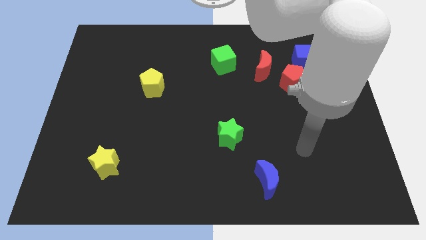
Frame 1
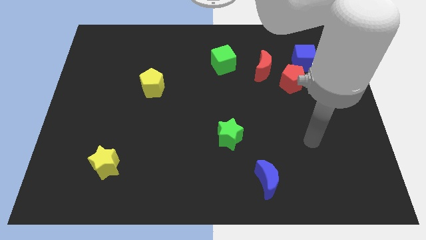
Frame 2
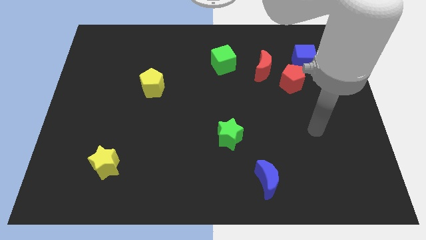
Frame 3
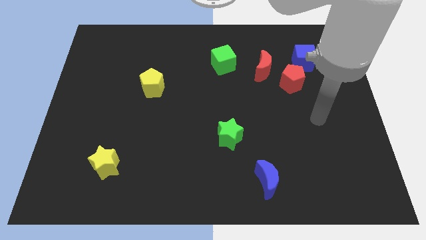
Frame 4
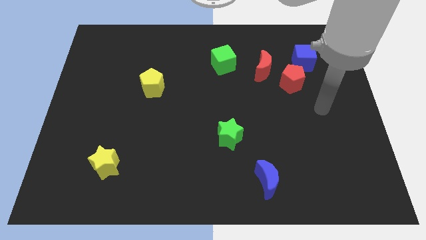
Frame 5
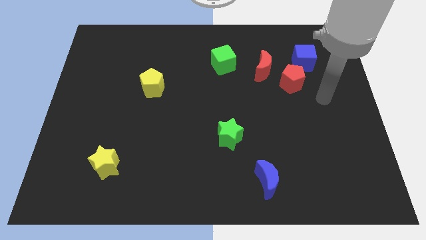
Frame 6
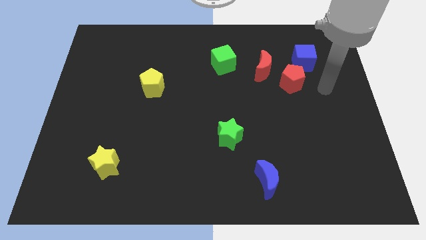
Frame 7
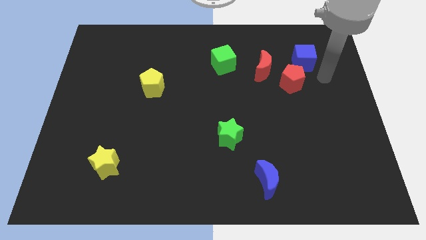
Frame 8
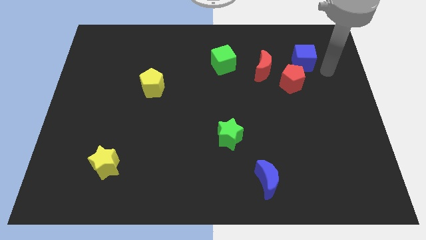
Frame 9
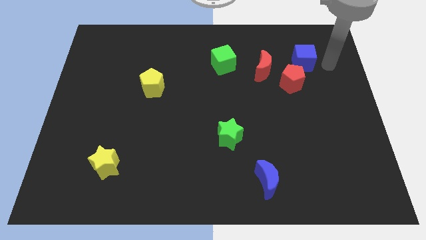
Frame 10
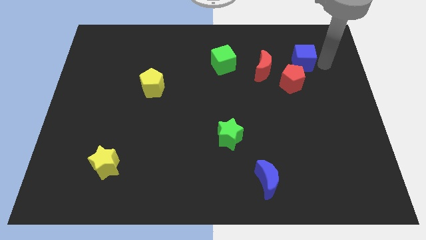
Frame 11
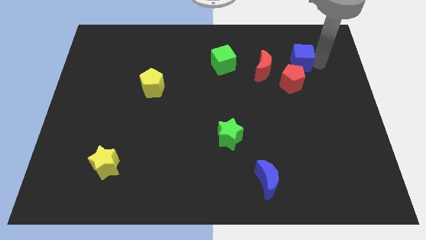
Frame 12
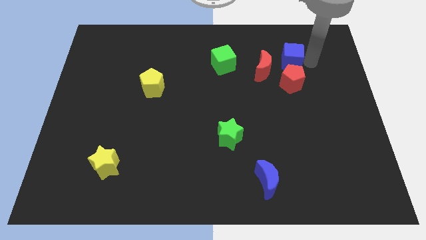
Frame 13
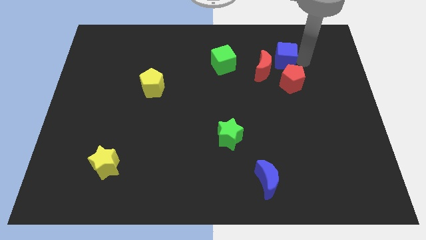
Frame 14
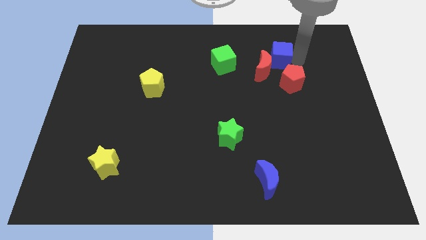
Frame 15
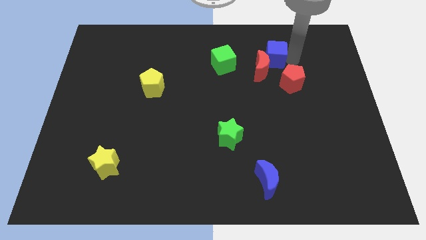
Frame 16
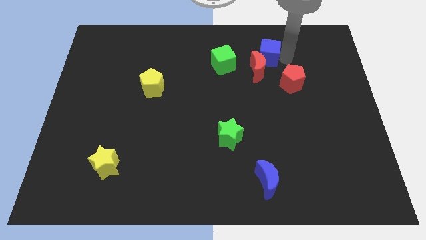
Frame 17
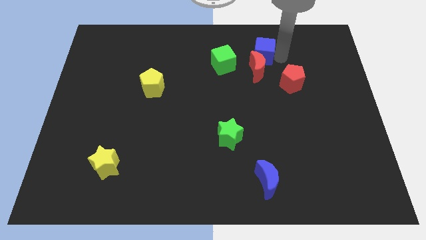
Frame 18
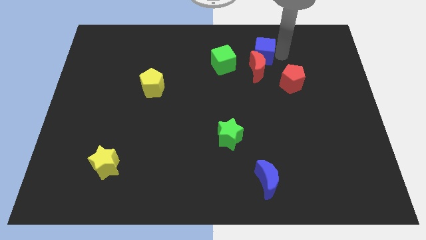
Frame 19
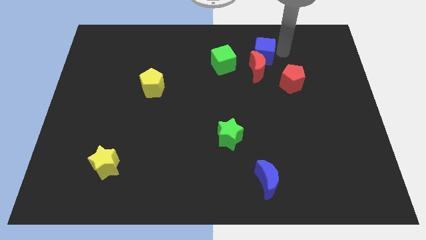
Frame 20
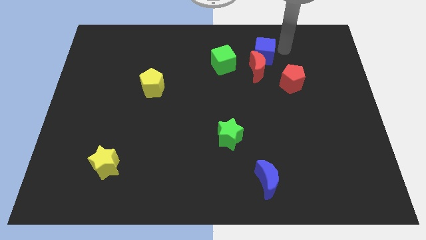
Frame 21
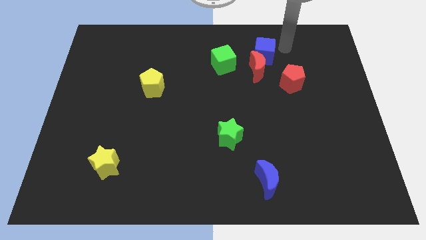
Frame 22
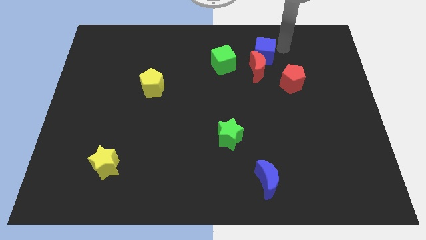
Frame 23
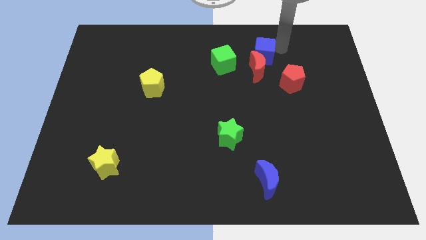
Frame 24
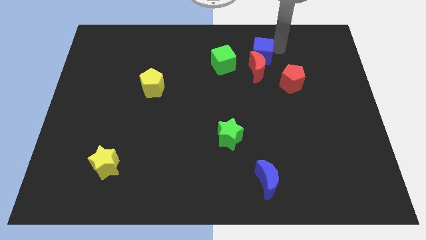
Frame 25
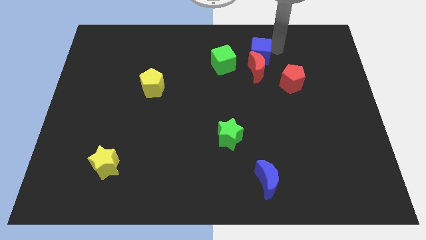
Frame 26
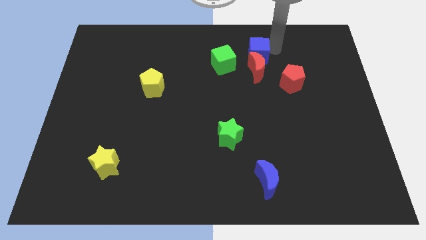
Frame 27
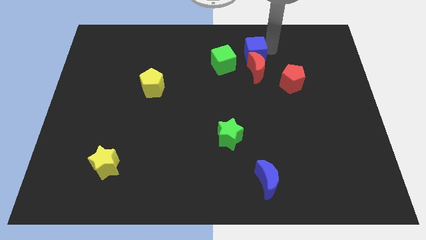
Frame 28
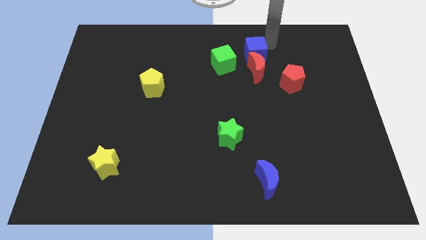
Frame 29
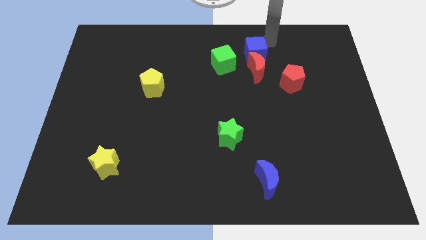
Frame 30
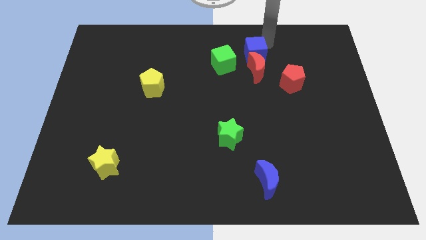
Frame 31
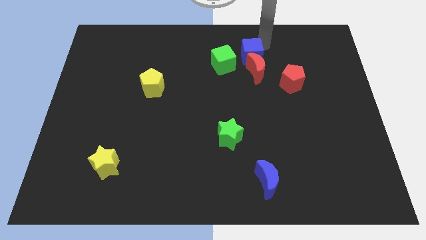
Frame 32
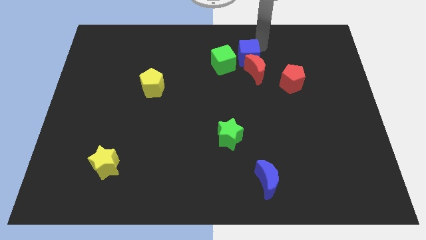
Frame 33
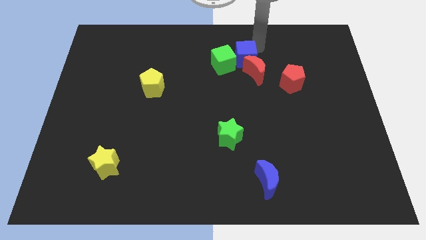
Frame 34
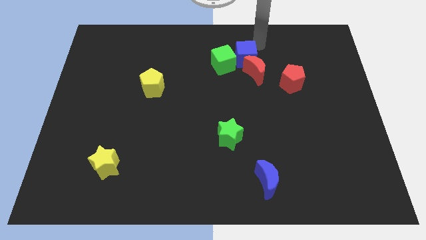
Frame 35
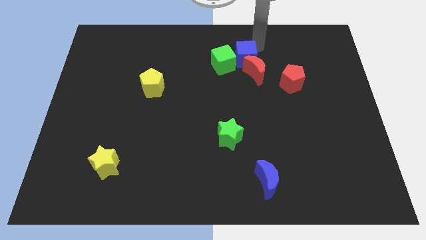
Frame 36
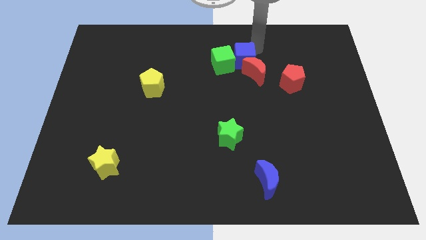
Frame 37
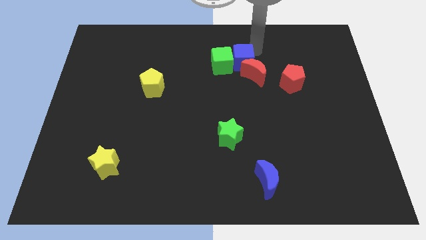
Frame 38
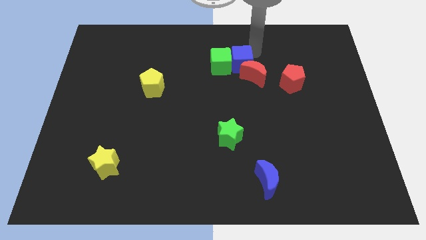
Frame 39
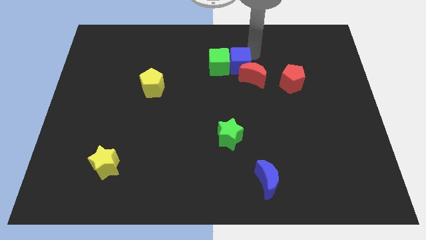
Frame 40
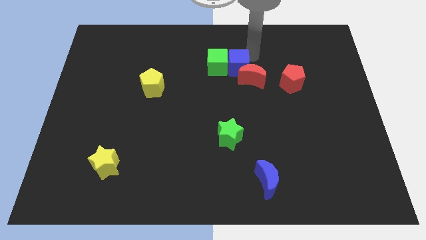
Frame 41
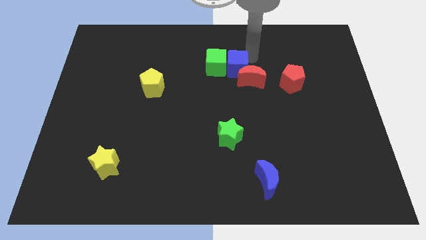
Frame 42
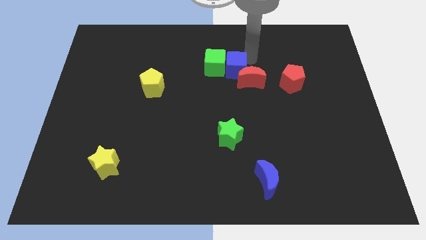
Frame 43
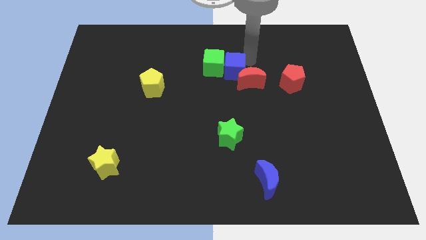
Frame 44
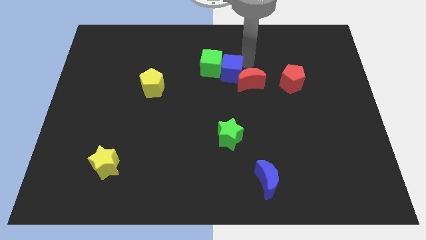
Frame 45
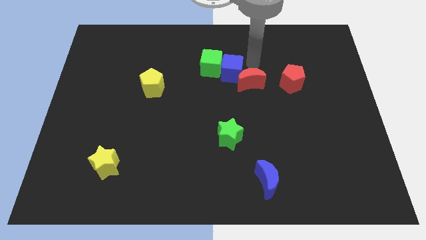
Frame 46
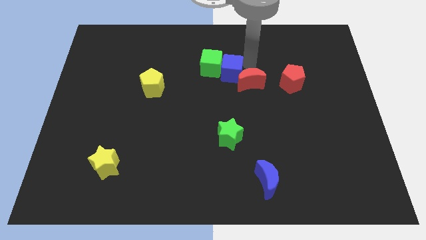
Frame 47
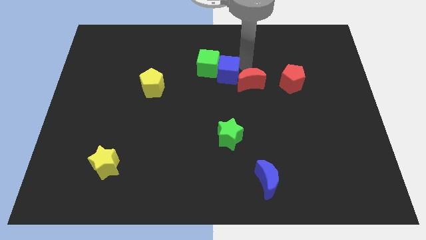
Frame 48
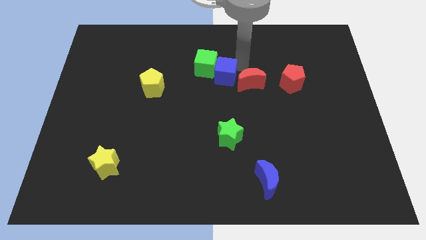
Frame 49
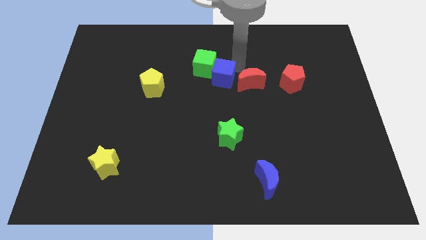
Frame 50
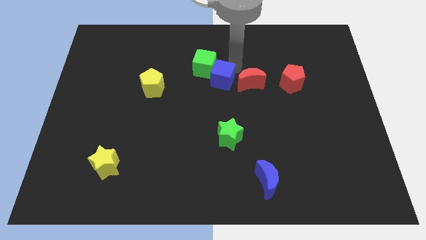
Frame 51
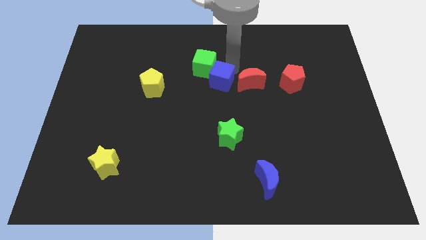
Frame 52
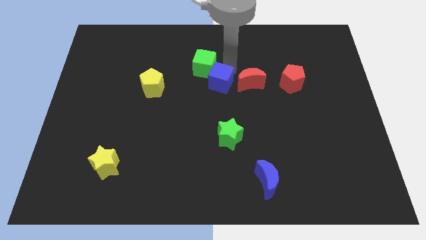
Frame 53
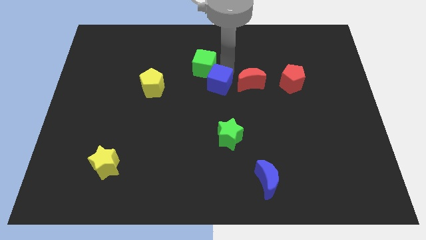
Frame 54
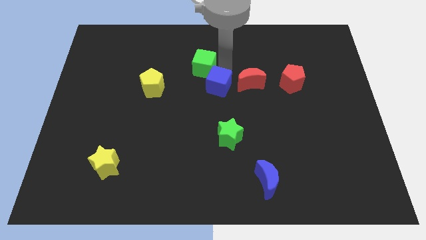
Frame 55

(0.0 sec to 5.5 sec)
slide the blue cube right of the yellow pentagon

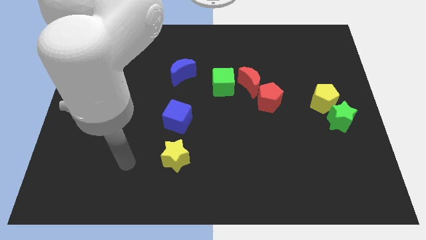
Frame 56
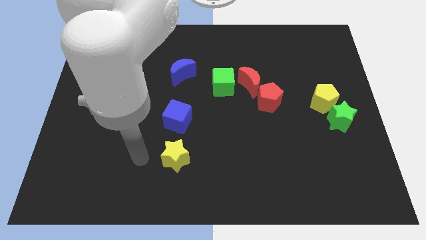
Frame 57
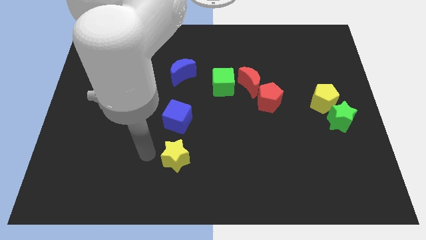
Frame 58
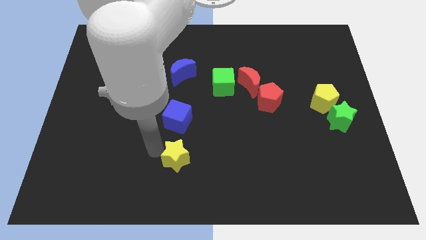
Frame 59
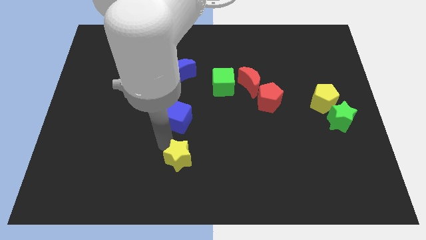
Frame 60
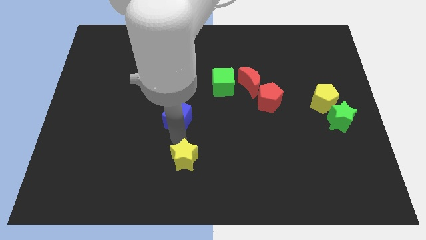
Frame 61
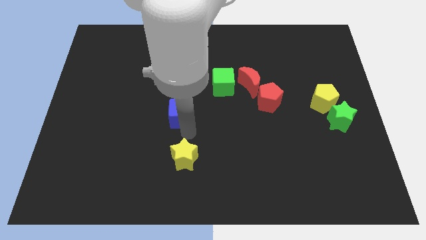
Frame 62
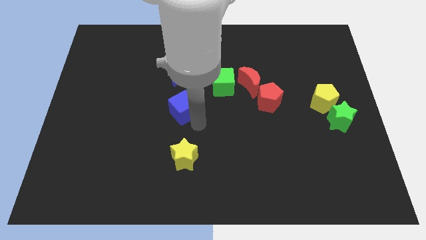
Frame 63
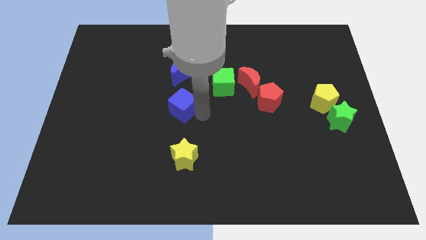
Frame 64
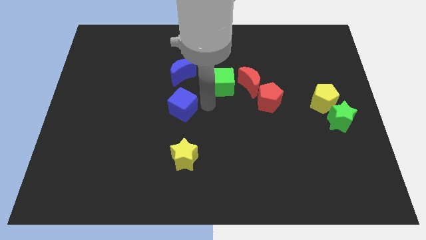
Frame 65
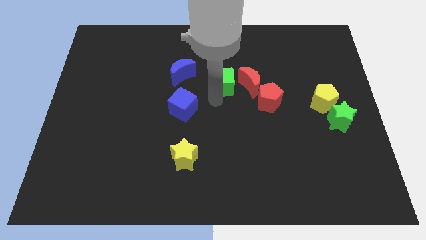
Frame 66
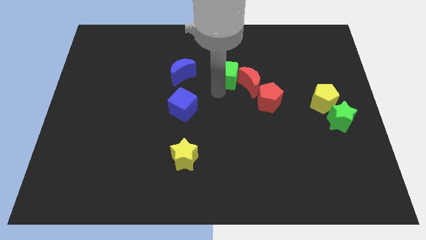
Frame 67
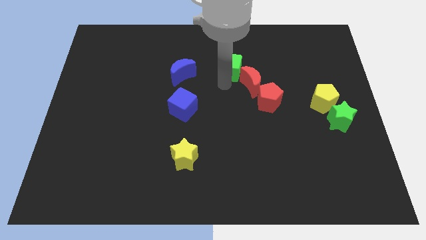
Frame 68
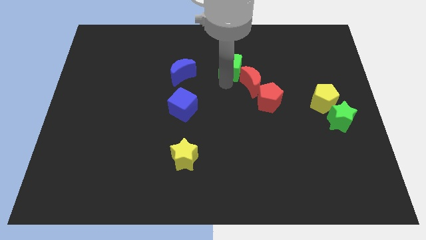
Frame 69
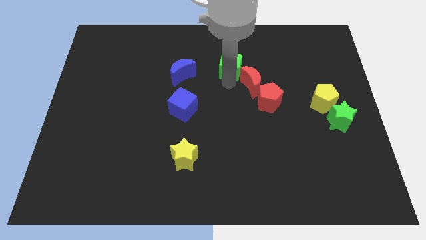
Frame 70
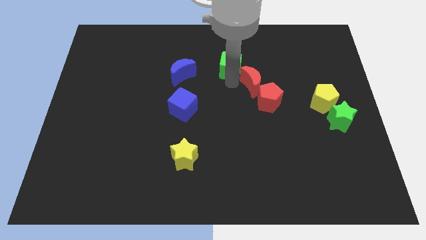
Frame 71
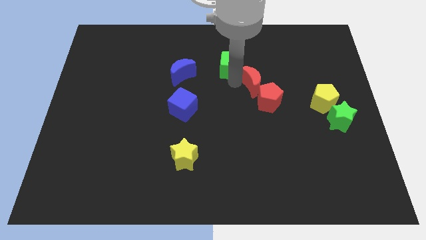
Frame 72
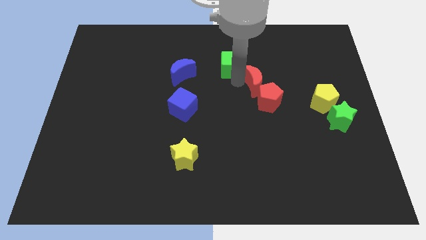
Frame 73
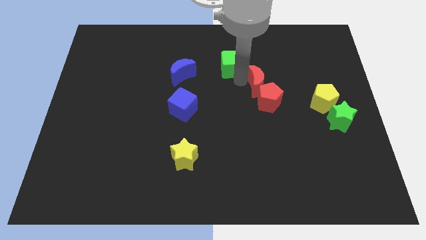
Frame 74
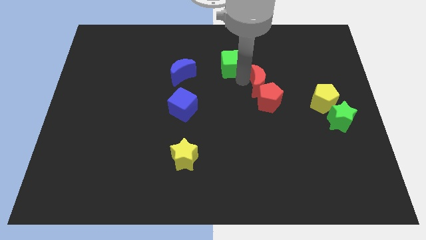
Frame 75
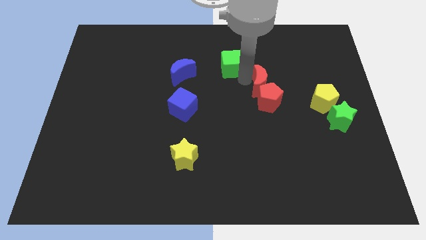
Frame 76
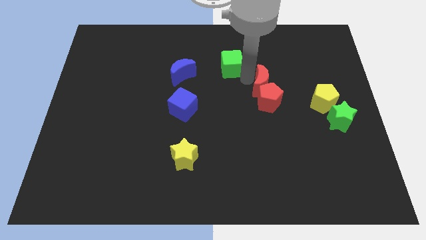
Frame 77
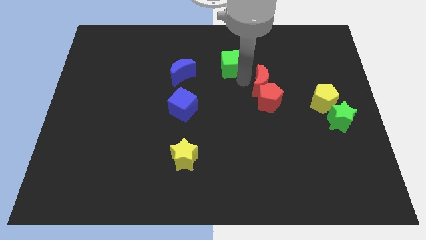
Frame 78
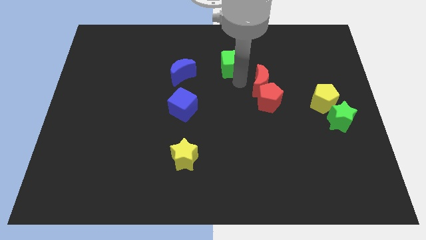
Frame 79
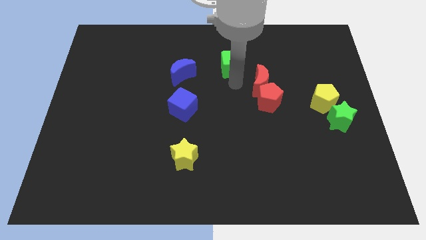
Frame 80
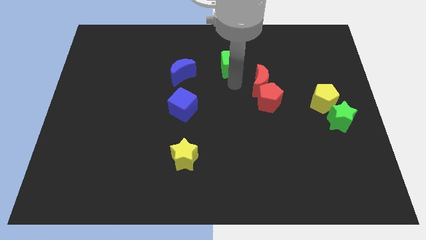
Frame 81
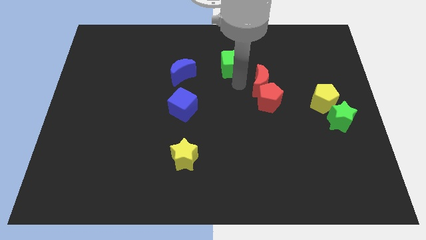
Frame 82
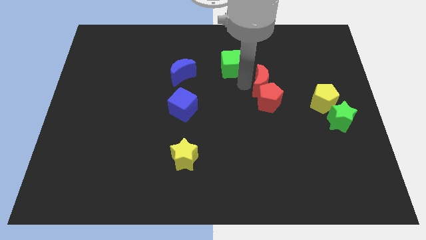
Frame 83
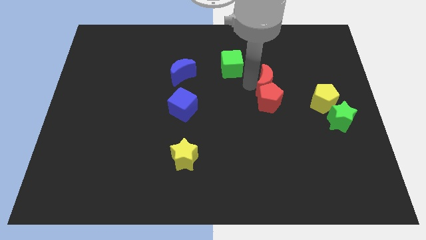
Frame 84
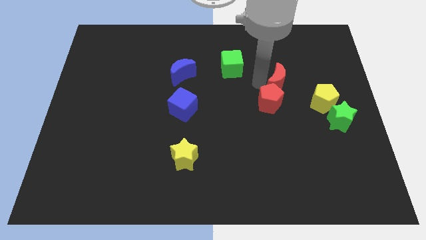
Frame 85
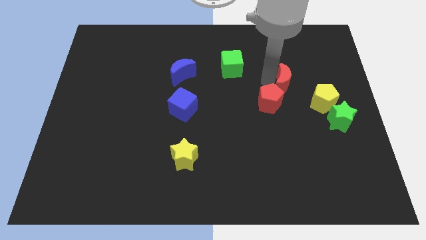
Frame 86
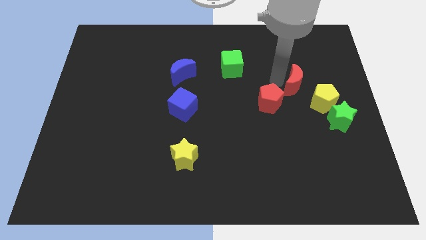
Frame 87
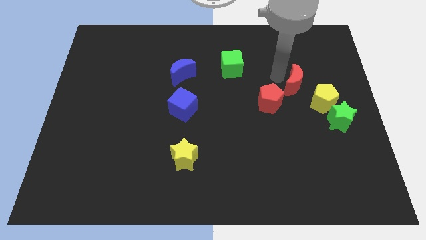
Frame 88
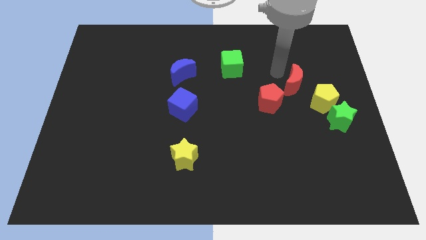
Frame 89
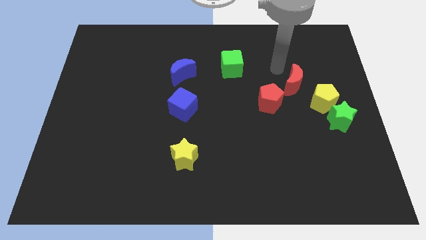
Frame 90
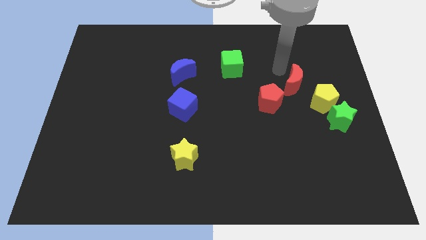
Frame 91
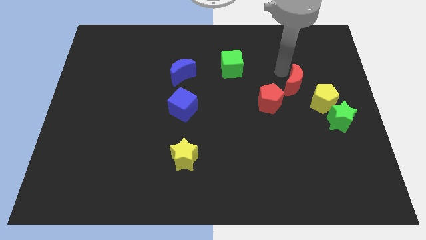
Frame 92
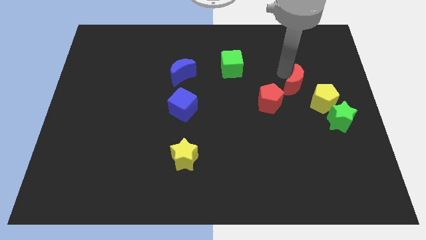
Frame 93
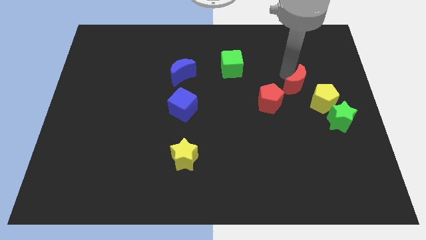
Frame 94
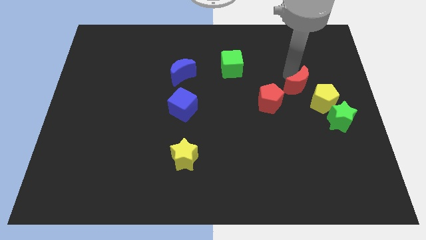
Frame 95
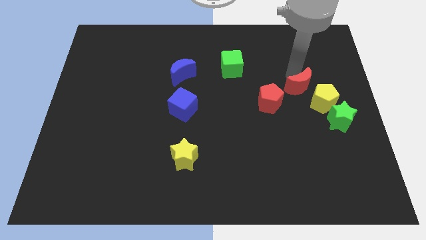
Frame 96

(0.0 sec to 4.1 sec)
move the red moon diagonally up and to the left of the green star
